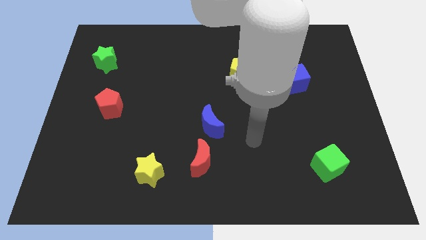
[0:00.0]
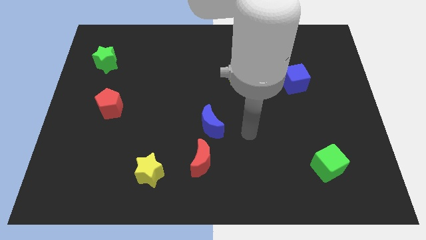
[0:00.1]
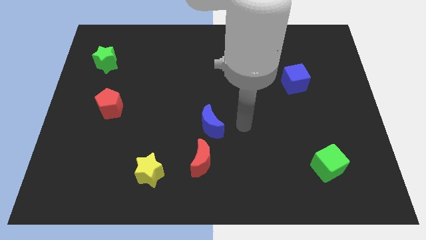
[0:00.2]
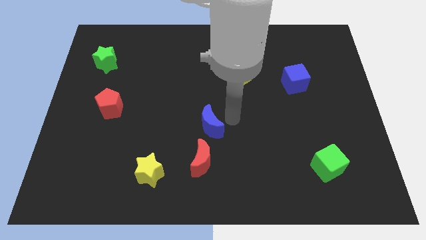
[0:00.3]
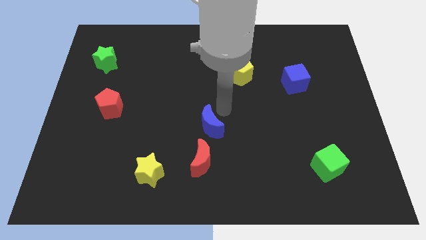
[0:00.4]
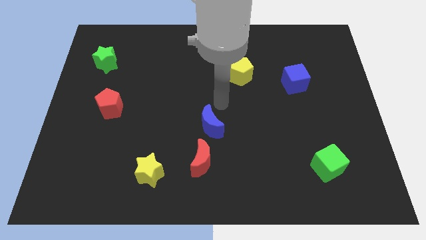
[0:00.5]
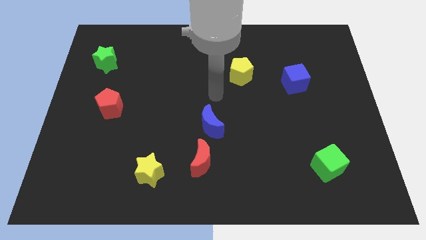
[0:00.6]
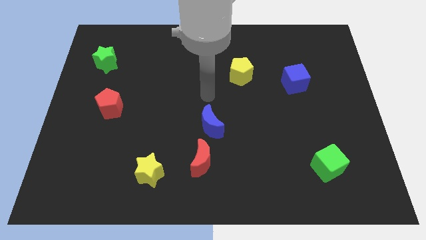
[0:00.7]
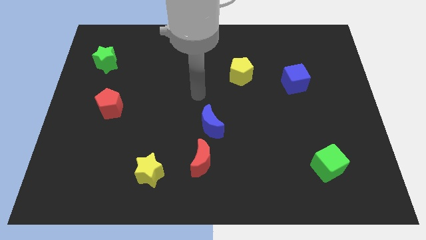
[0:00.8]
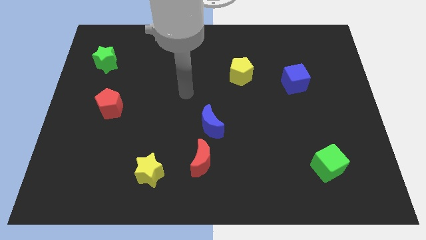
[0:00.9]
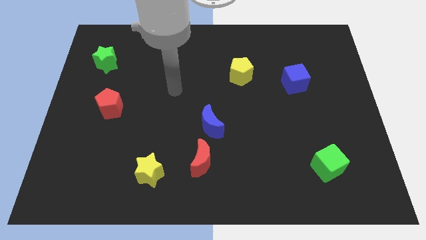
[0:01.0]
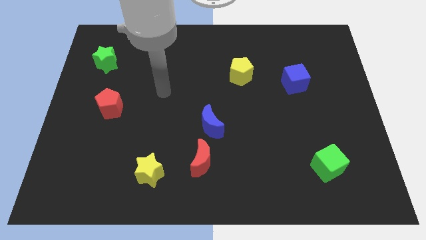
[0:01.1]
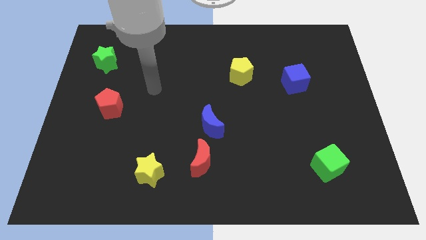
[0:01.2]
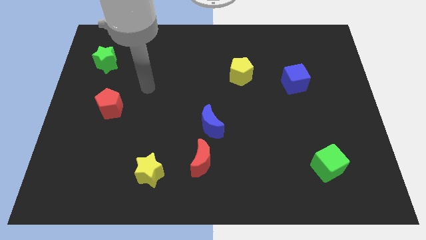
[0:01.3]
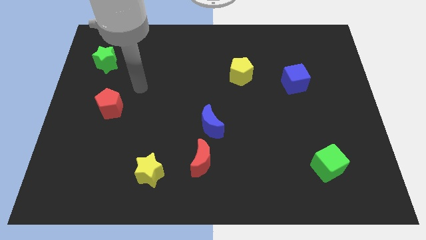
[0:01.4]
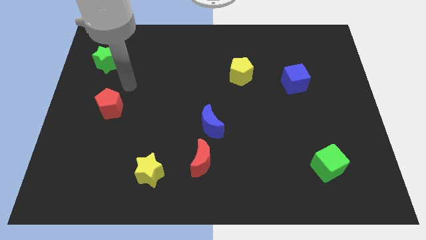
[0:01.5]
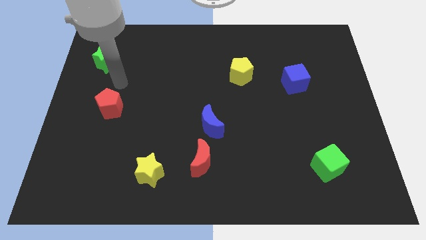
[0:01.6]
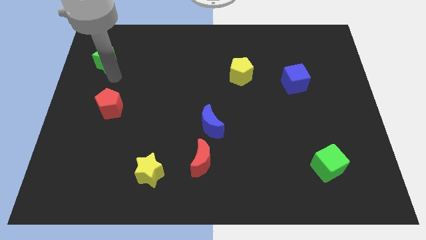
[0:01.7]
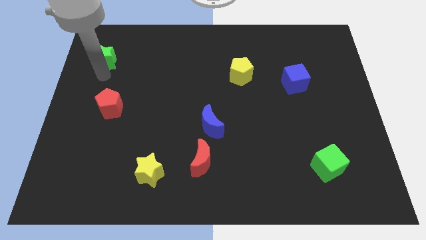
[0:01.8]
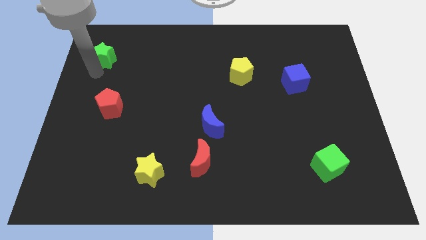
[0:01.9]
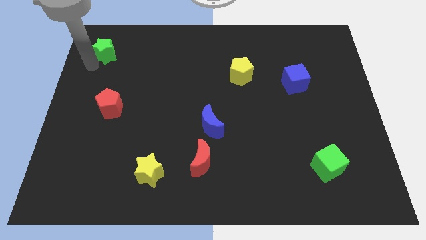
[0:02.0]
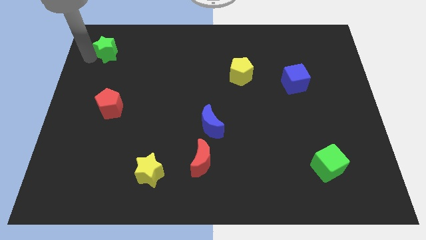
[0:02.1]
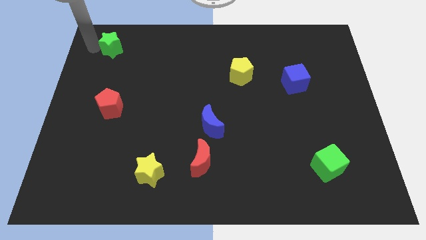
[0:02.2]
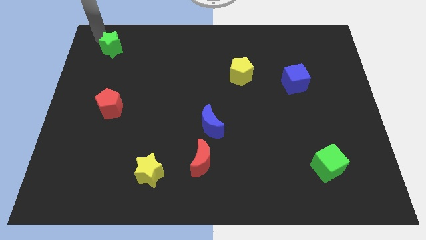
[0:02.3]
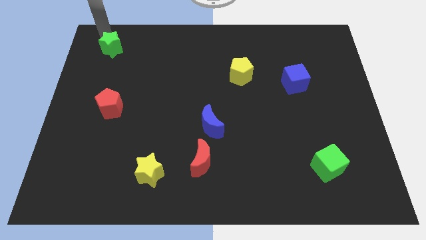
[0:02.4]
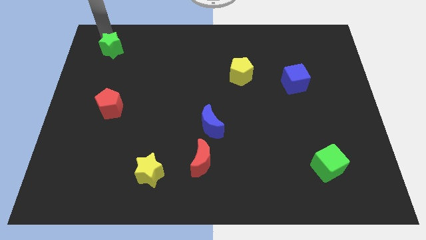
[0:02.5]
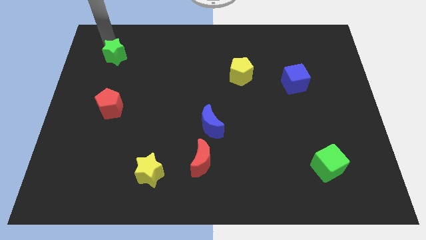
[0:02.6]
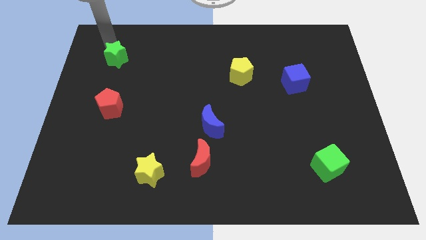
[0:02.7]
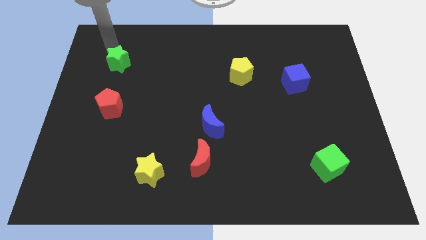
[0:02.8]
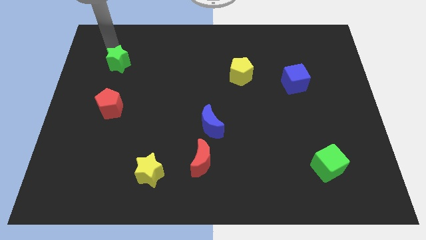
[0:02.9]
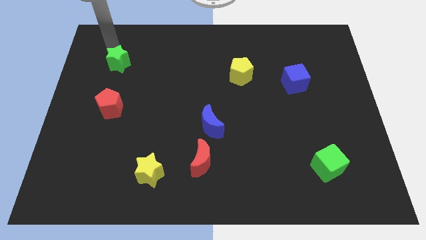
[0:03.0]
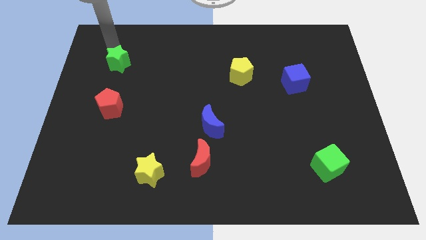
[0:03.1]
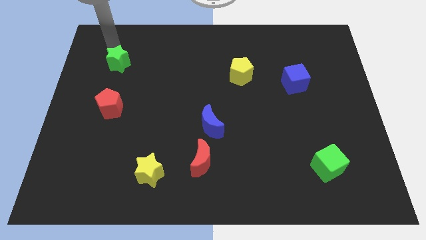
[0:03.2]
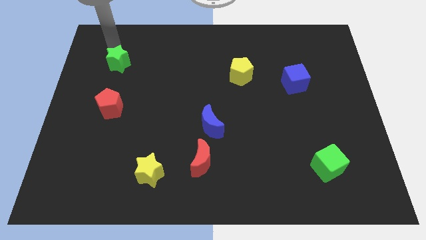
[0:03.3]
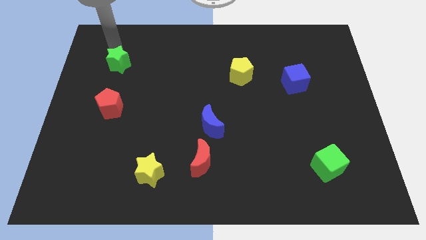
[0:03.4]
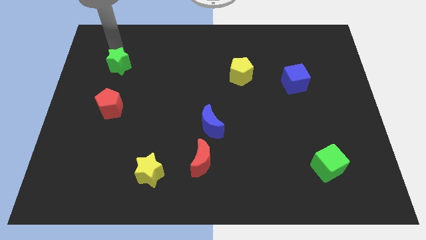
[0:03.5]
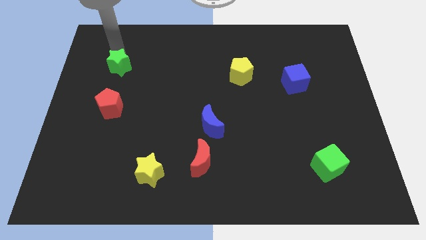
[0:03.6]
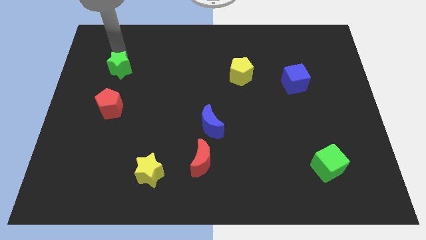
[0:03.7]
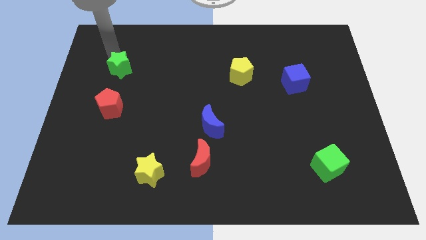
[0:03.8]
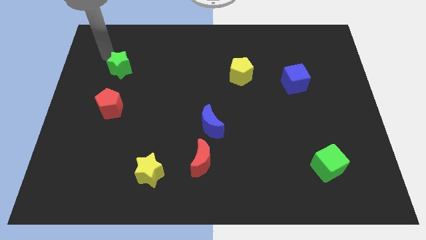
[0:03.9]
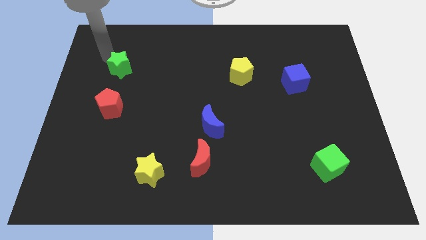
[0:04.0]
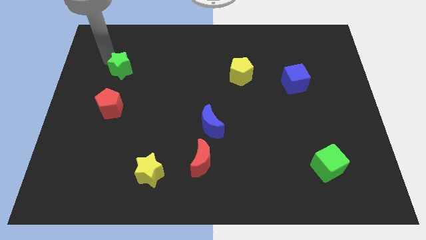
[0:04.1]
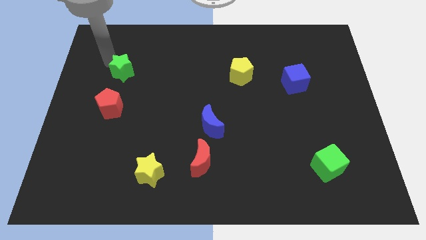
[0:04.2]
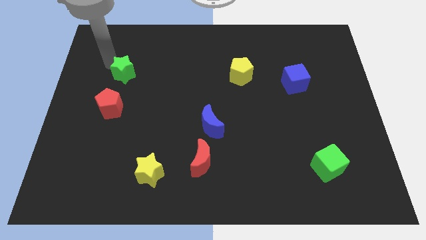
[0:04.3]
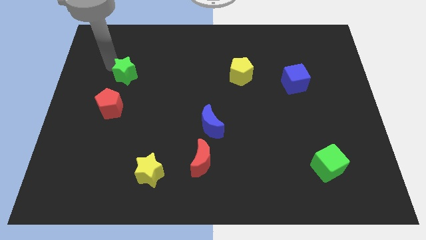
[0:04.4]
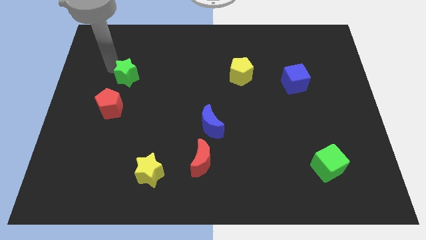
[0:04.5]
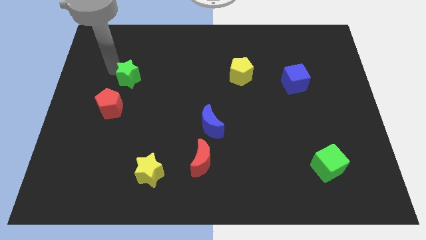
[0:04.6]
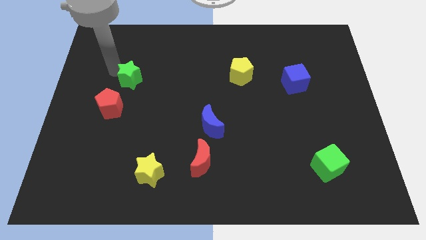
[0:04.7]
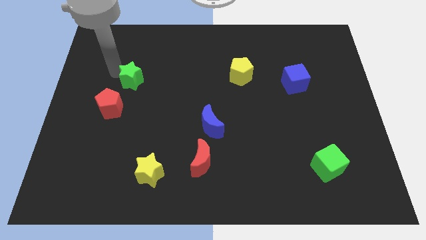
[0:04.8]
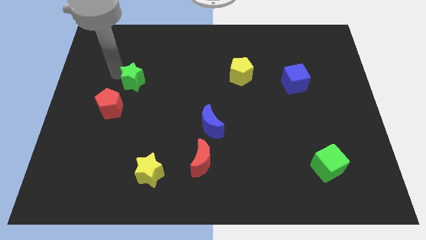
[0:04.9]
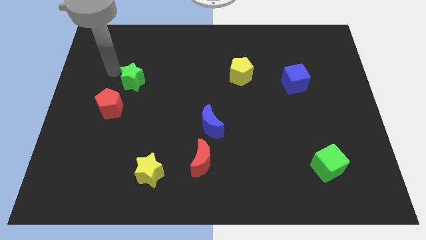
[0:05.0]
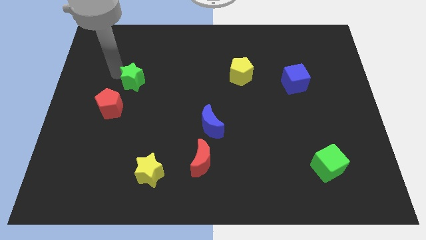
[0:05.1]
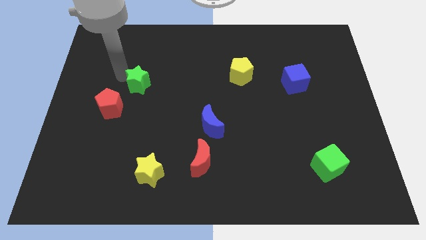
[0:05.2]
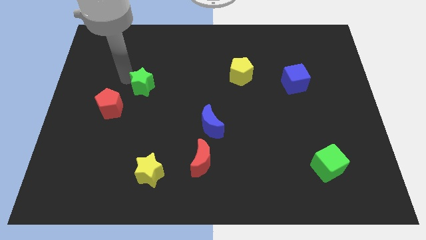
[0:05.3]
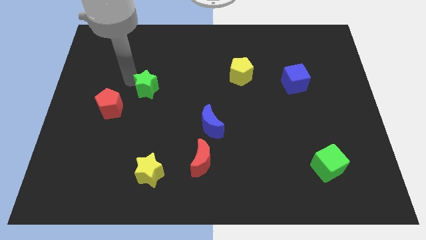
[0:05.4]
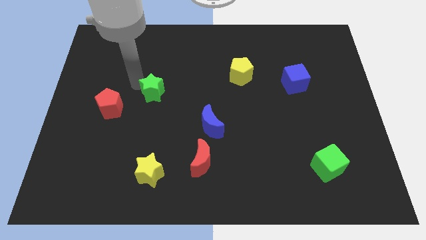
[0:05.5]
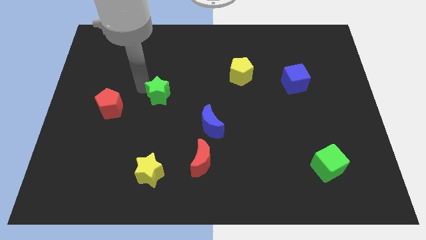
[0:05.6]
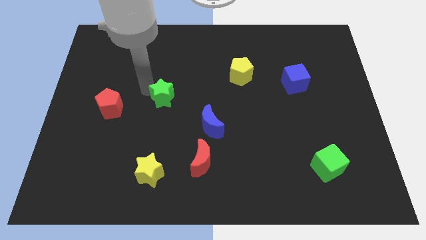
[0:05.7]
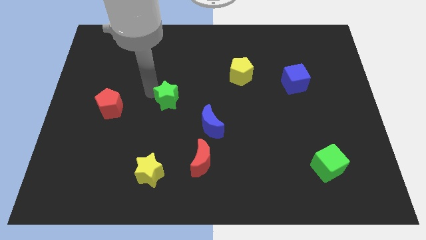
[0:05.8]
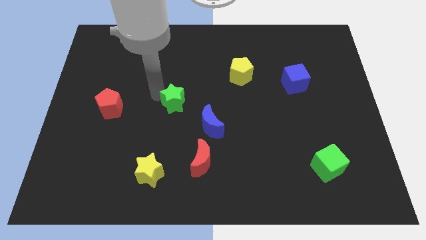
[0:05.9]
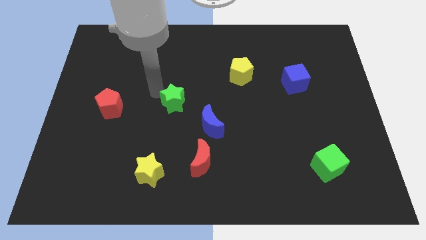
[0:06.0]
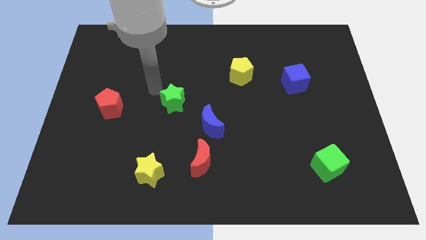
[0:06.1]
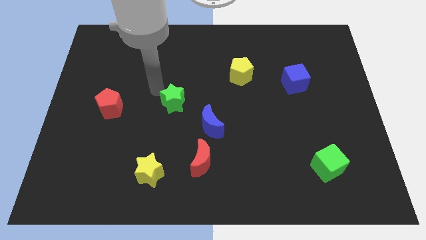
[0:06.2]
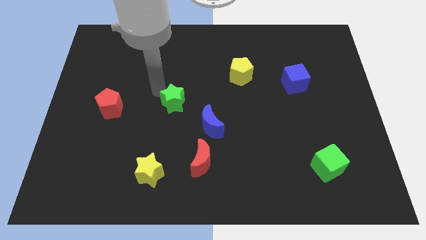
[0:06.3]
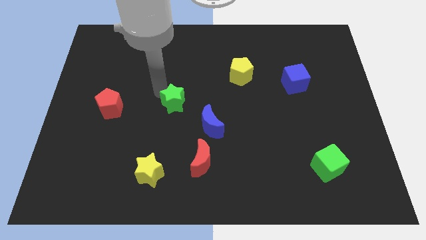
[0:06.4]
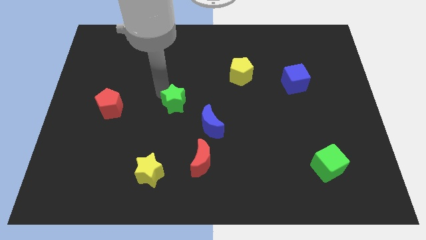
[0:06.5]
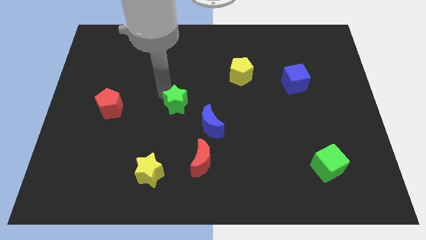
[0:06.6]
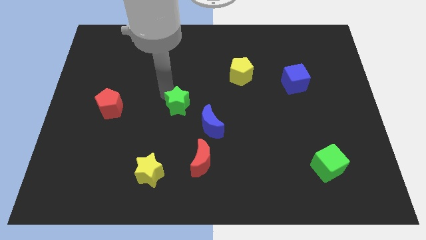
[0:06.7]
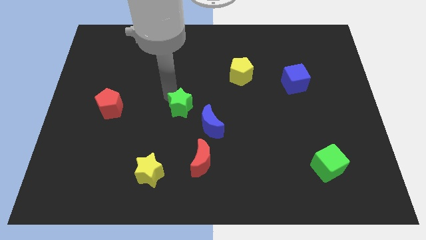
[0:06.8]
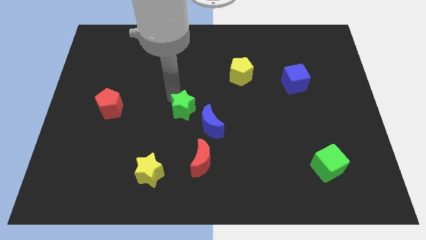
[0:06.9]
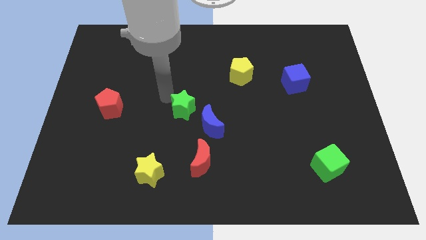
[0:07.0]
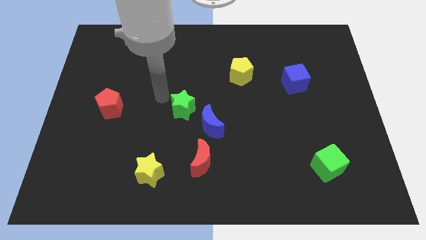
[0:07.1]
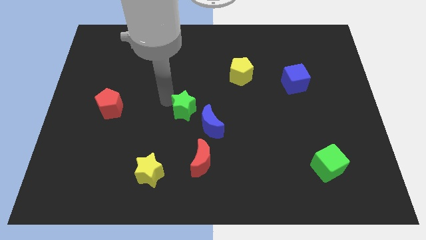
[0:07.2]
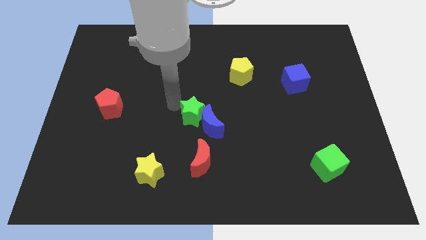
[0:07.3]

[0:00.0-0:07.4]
push the green star towards the blue moon
